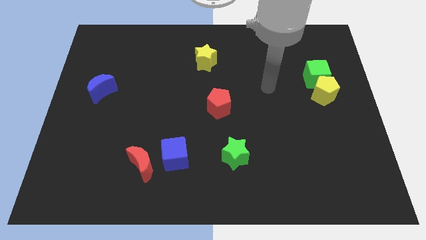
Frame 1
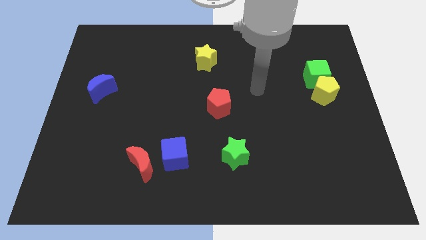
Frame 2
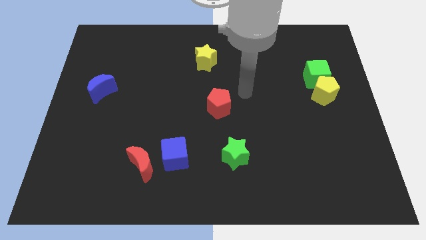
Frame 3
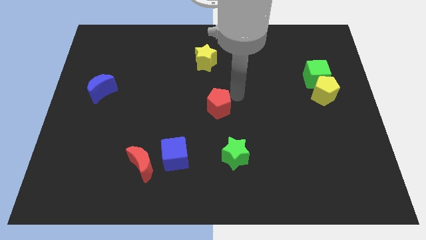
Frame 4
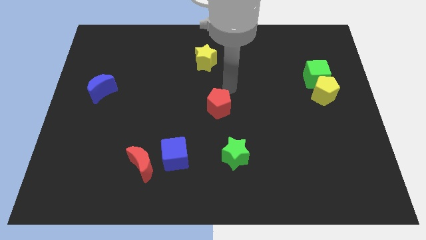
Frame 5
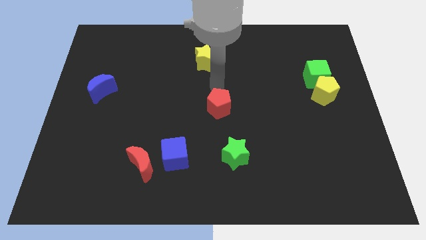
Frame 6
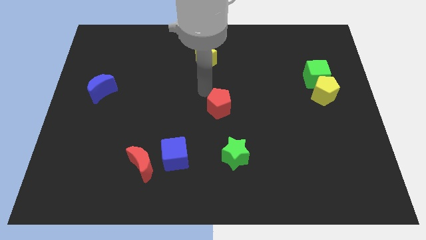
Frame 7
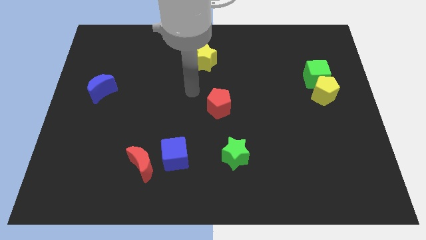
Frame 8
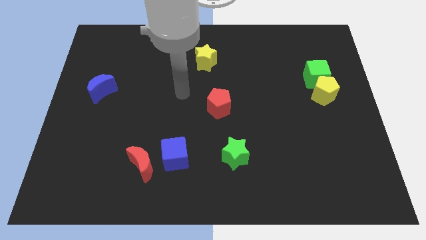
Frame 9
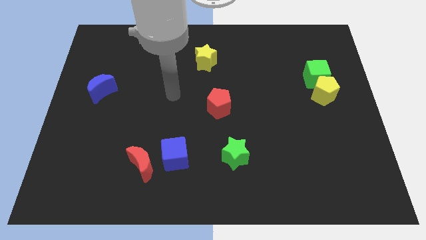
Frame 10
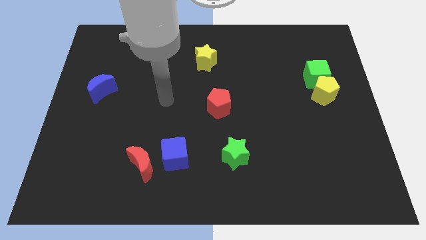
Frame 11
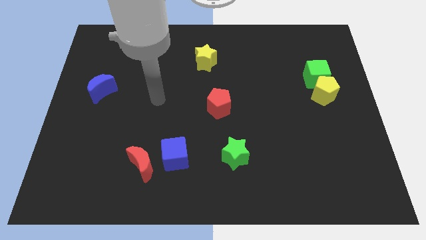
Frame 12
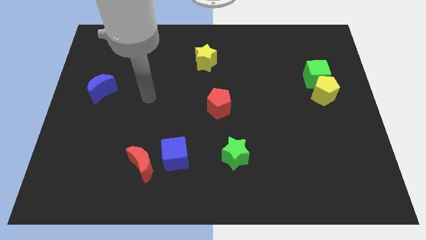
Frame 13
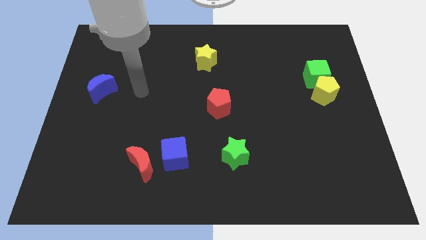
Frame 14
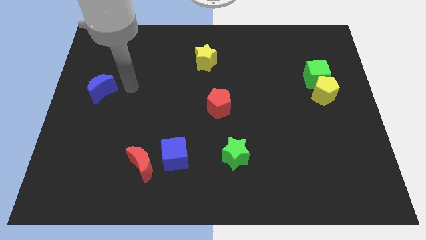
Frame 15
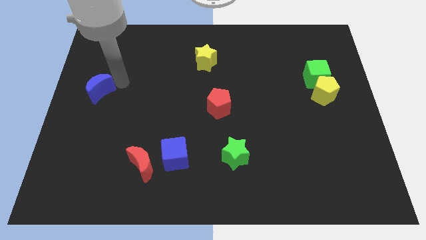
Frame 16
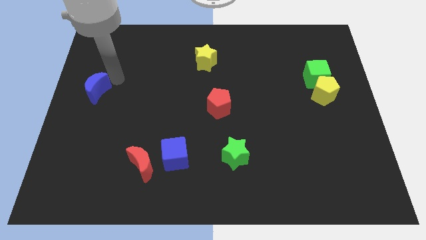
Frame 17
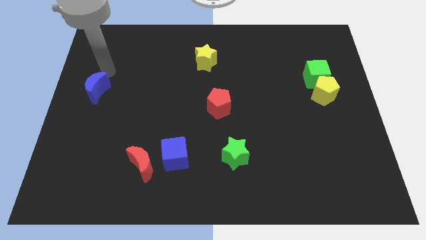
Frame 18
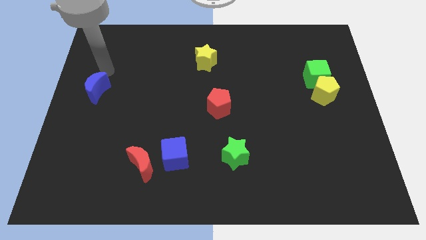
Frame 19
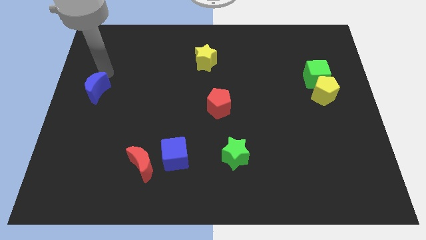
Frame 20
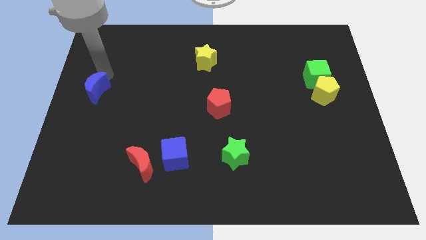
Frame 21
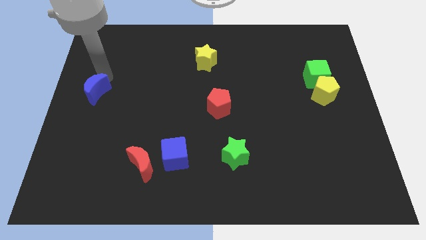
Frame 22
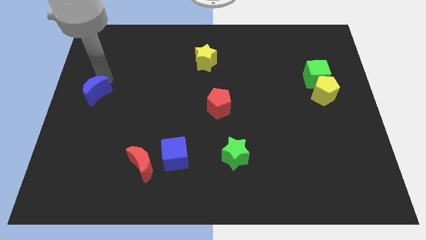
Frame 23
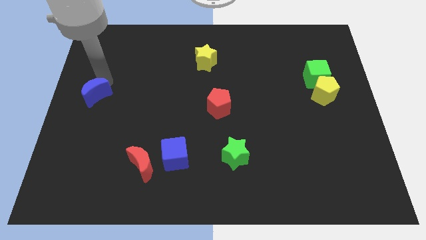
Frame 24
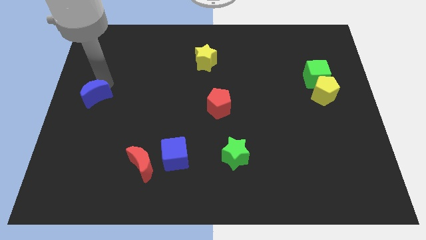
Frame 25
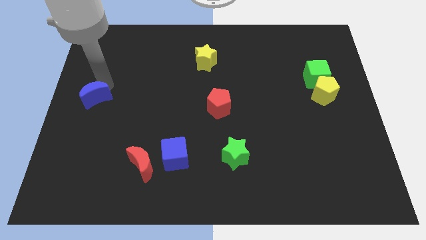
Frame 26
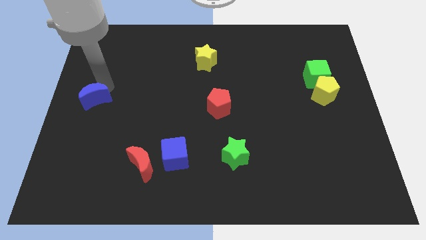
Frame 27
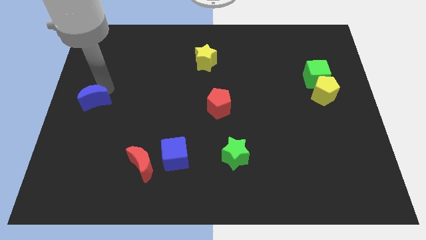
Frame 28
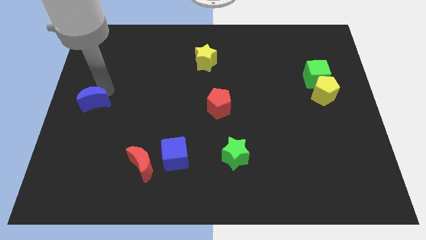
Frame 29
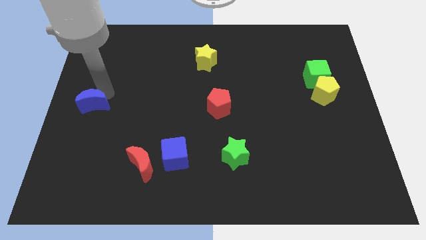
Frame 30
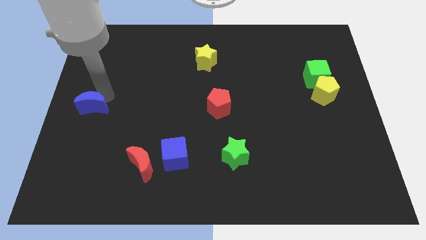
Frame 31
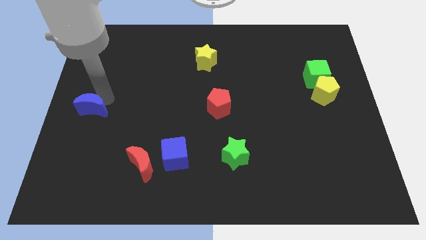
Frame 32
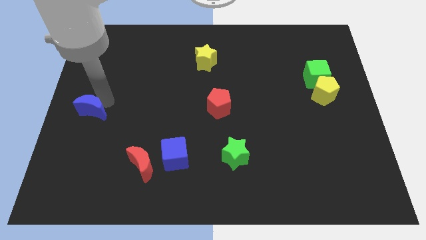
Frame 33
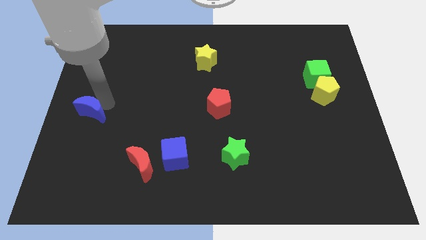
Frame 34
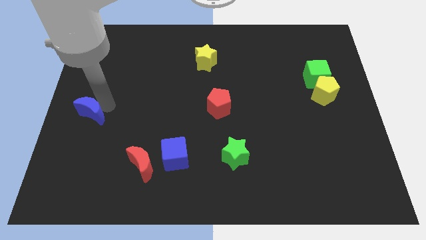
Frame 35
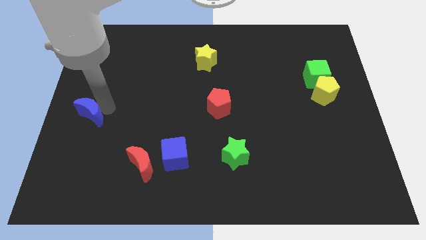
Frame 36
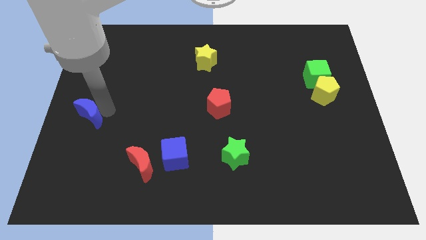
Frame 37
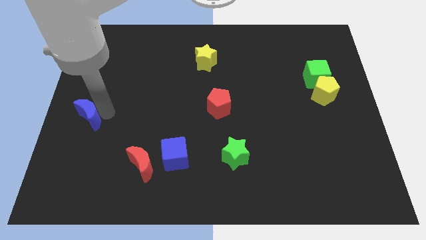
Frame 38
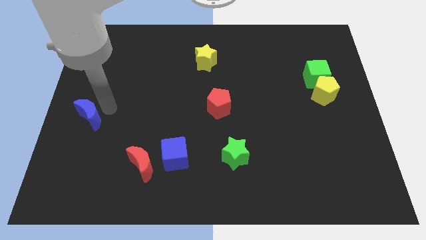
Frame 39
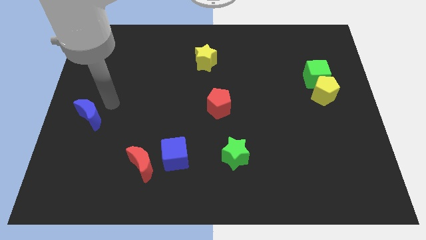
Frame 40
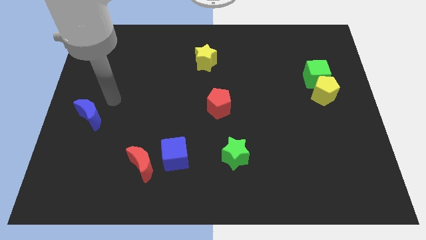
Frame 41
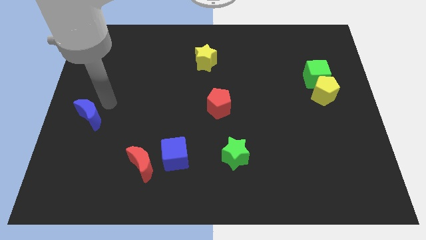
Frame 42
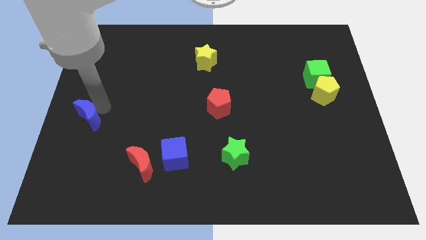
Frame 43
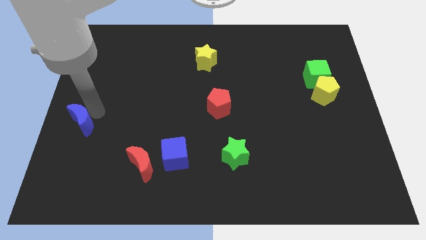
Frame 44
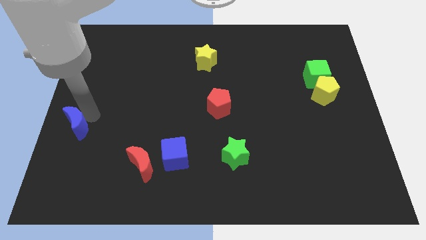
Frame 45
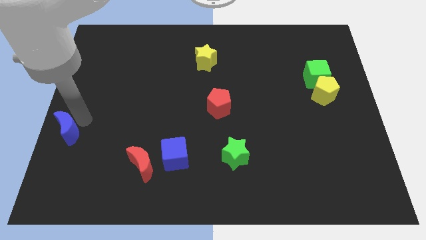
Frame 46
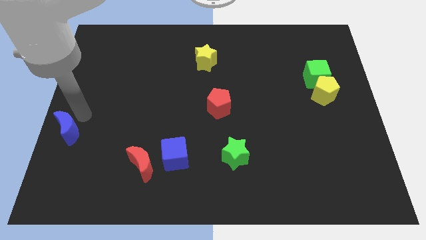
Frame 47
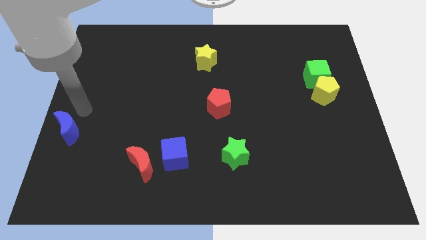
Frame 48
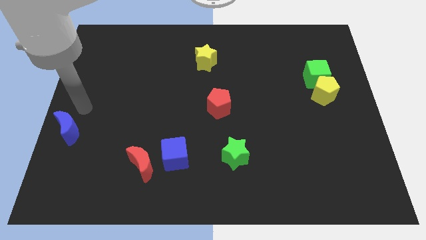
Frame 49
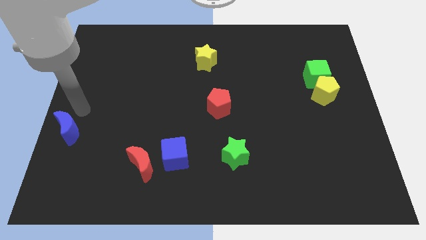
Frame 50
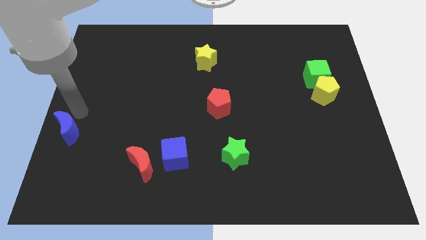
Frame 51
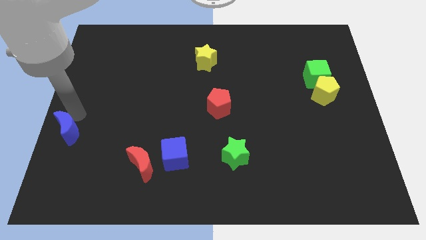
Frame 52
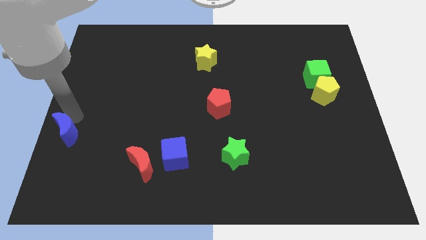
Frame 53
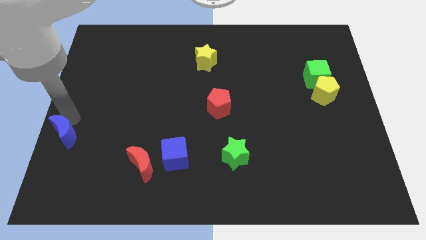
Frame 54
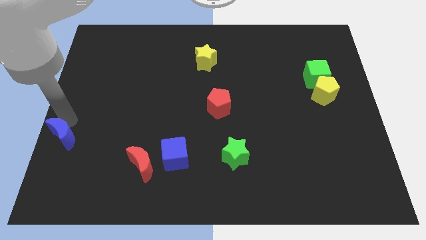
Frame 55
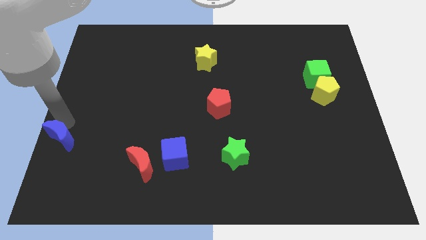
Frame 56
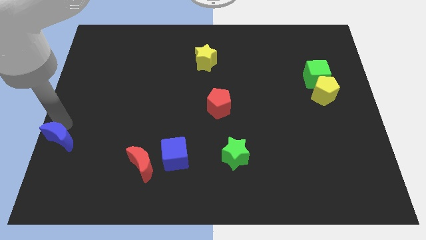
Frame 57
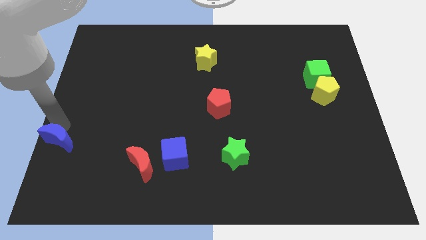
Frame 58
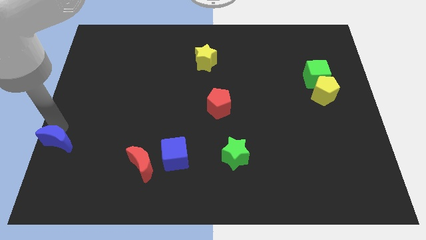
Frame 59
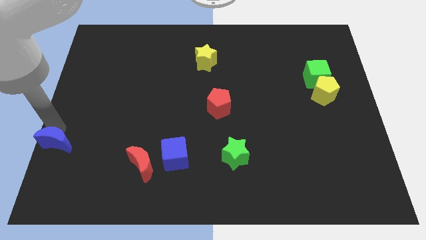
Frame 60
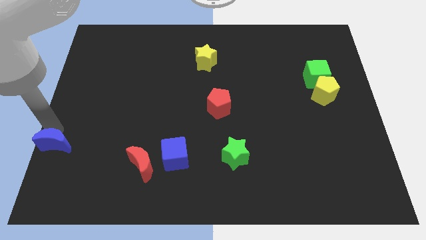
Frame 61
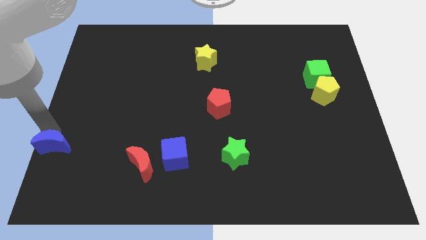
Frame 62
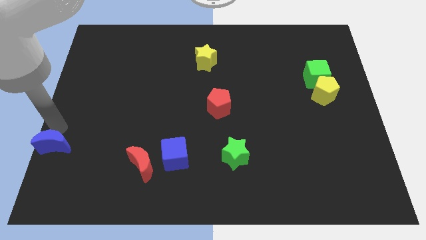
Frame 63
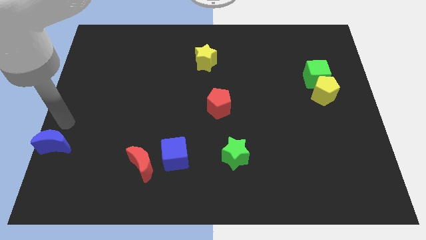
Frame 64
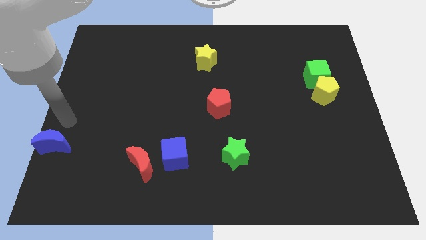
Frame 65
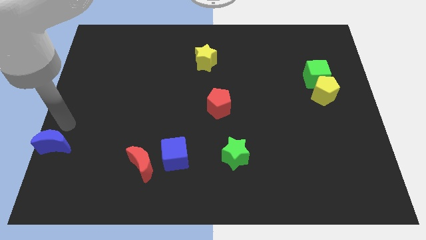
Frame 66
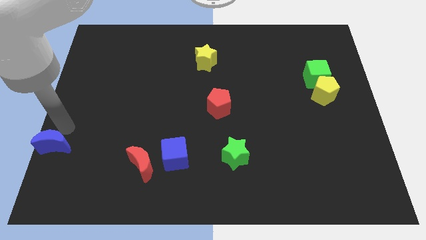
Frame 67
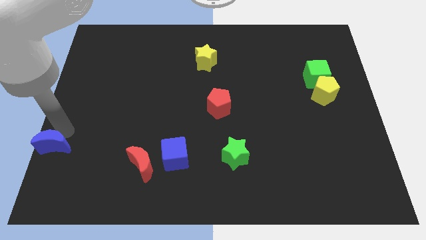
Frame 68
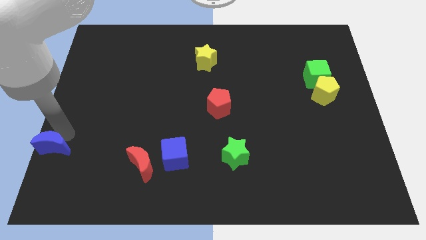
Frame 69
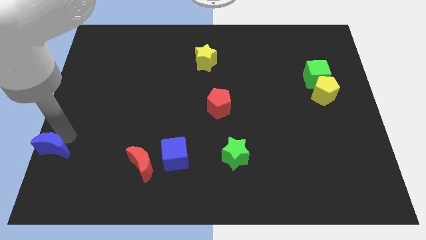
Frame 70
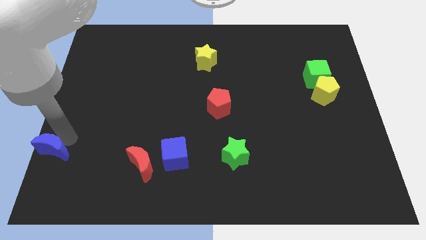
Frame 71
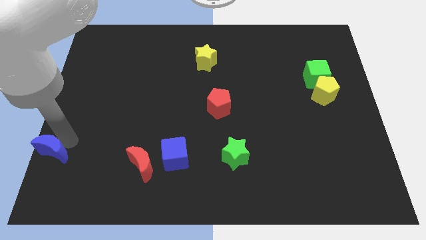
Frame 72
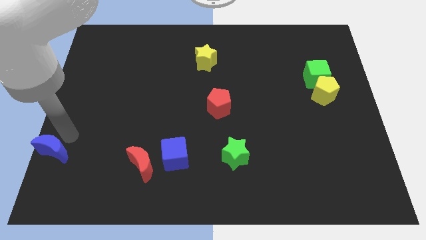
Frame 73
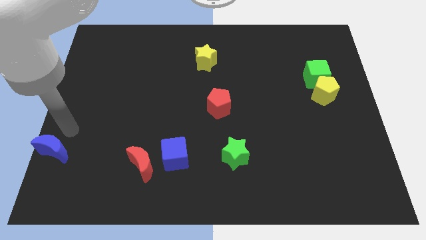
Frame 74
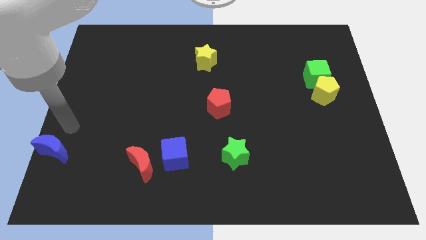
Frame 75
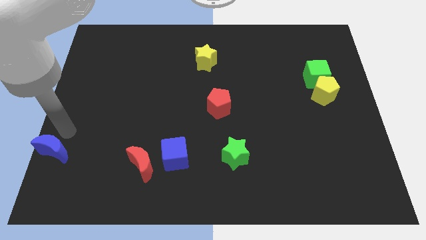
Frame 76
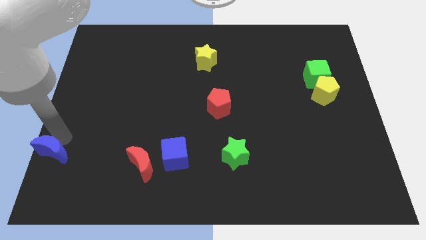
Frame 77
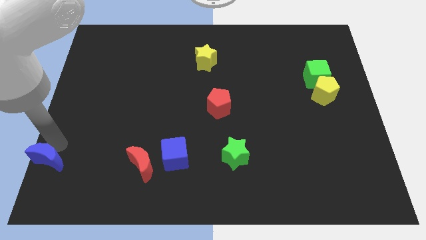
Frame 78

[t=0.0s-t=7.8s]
put the blue moon to the lower left corner
